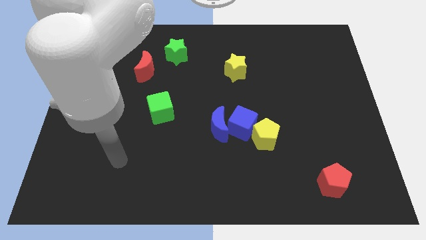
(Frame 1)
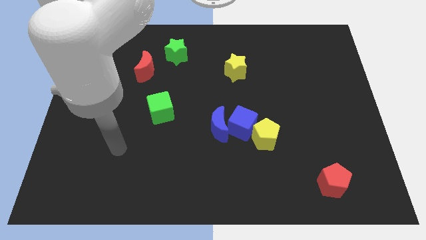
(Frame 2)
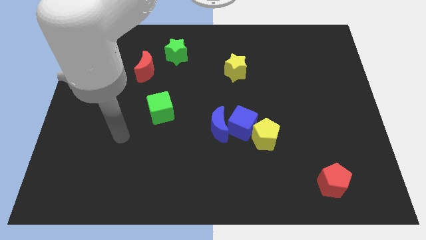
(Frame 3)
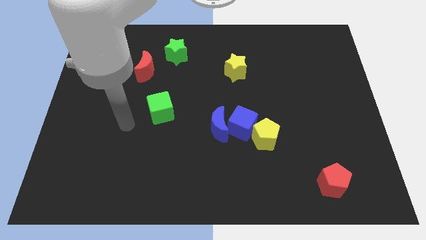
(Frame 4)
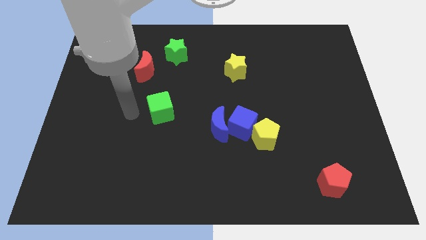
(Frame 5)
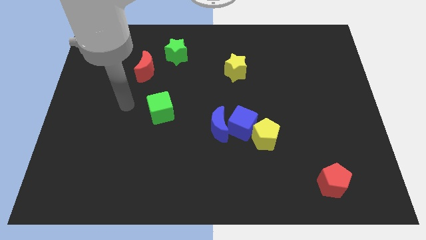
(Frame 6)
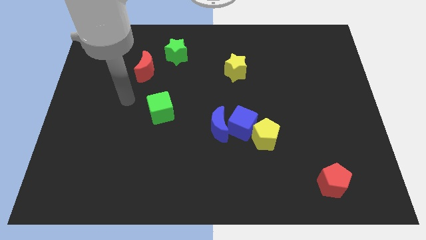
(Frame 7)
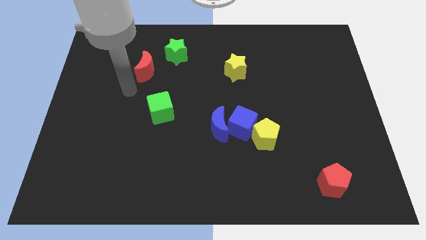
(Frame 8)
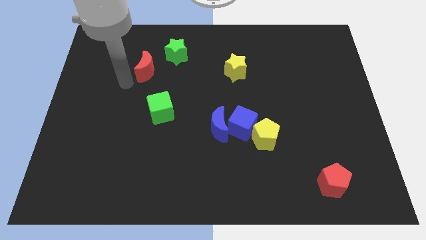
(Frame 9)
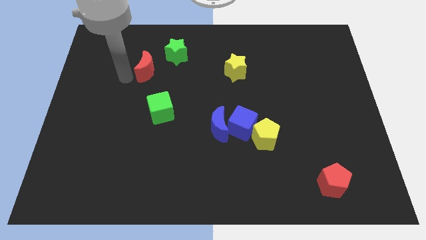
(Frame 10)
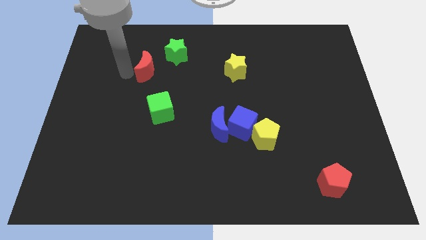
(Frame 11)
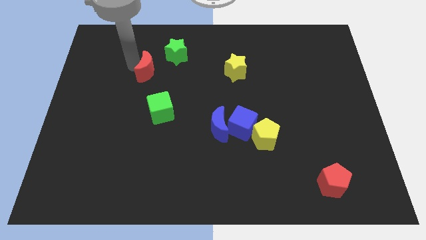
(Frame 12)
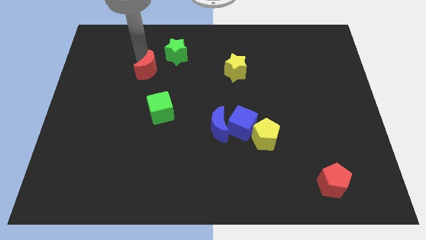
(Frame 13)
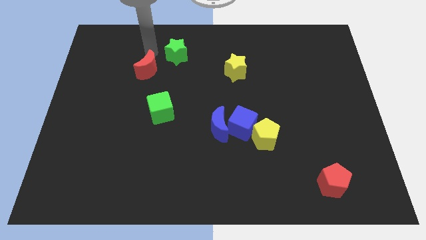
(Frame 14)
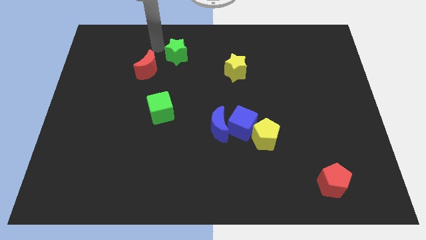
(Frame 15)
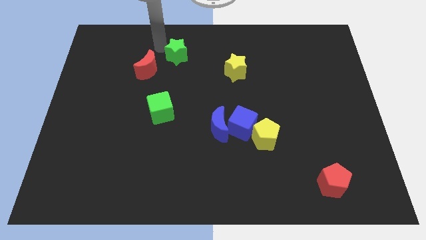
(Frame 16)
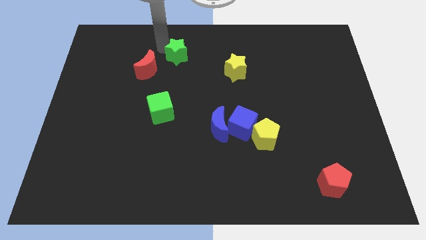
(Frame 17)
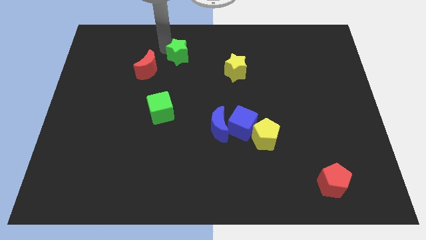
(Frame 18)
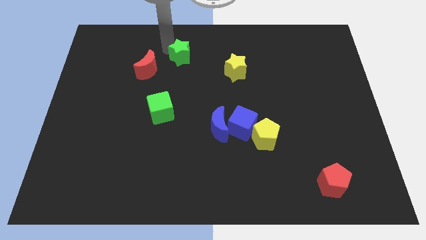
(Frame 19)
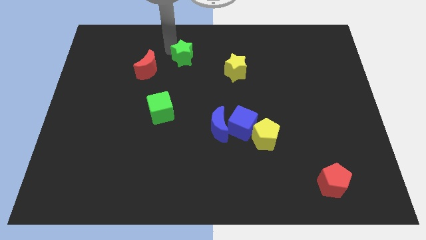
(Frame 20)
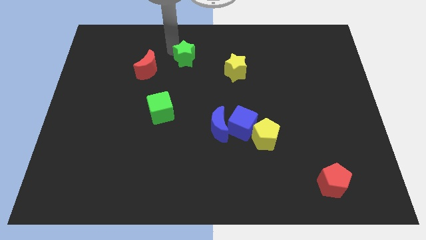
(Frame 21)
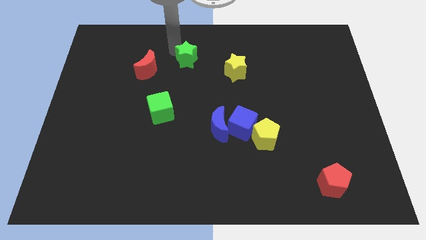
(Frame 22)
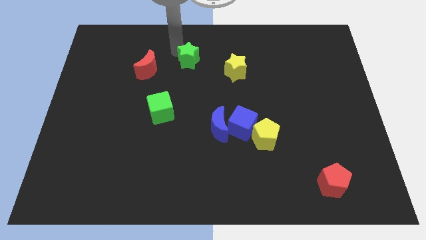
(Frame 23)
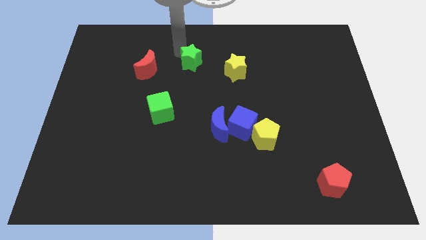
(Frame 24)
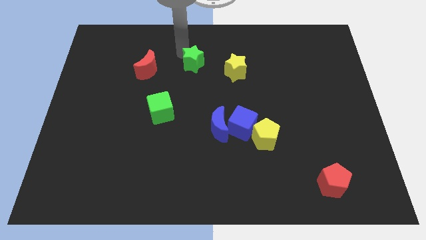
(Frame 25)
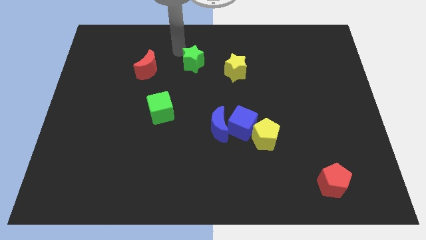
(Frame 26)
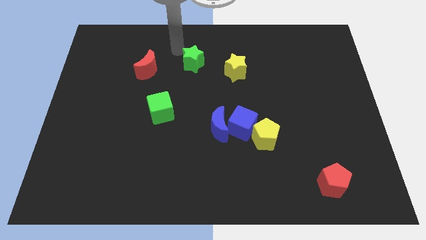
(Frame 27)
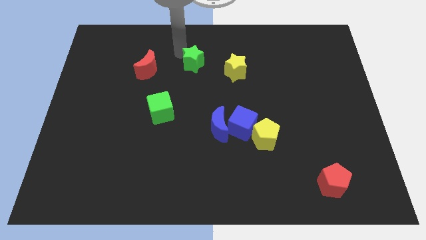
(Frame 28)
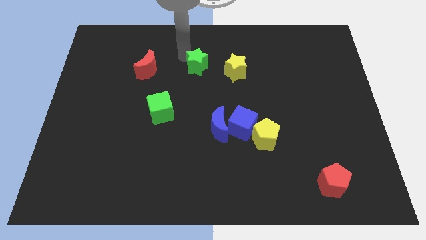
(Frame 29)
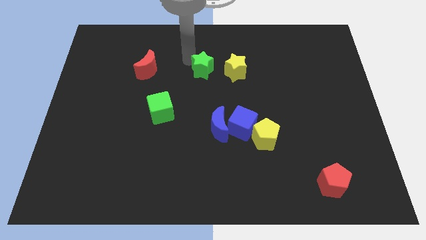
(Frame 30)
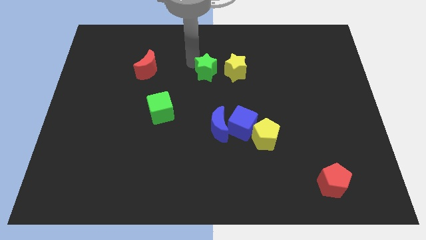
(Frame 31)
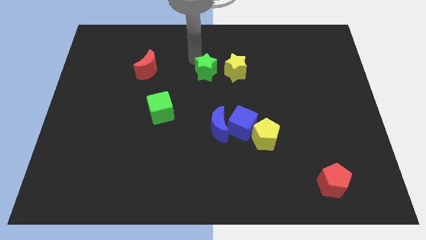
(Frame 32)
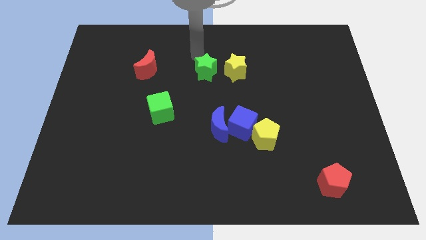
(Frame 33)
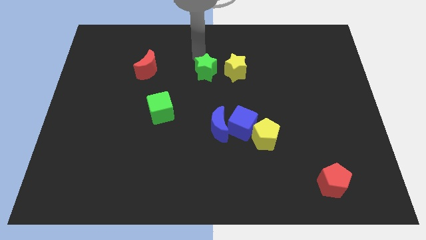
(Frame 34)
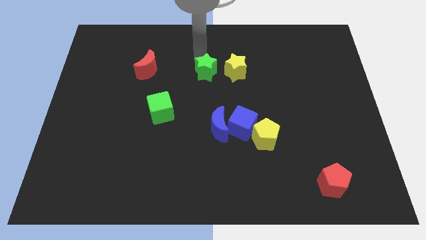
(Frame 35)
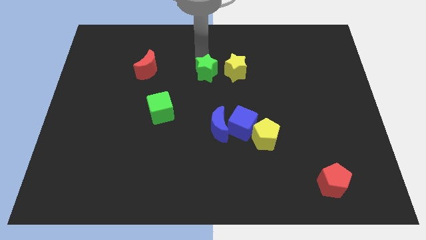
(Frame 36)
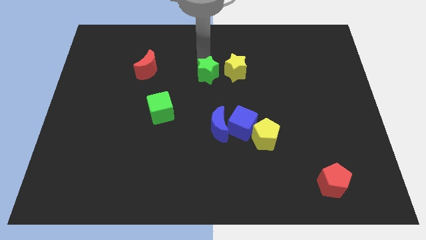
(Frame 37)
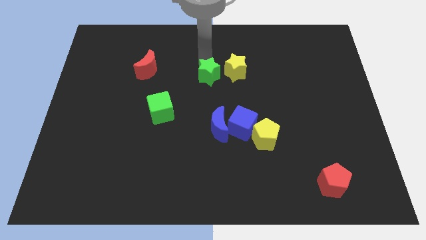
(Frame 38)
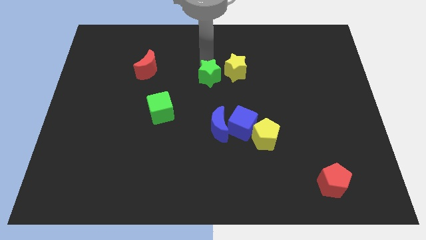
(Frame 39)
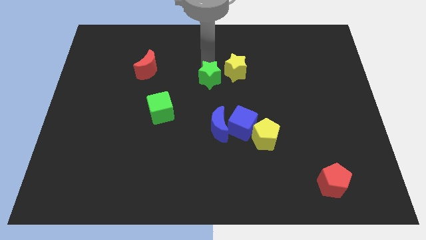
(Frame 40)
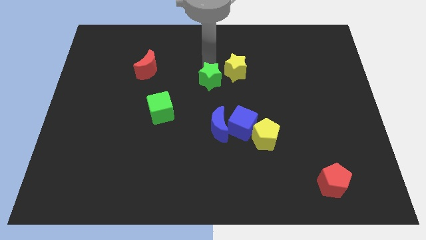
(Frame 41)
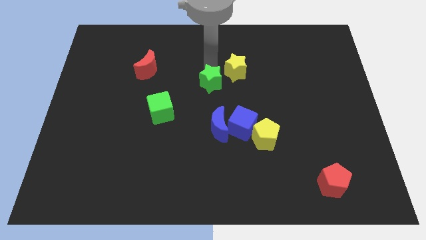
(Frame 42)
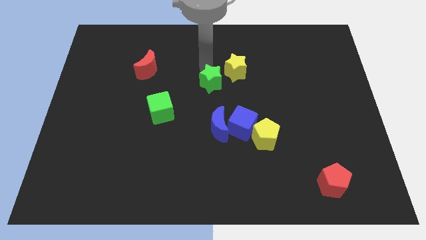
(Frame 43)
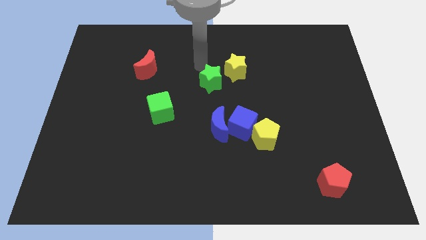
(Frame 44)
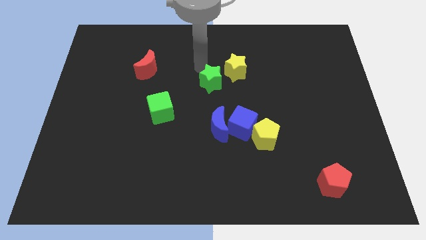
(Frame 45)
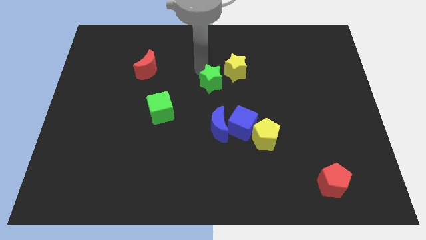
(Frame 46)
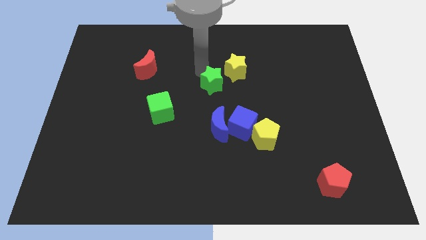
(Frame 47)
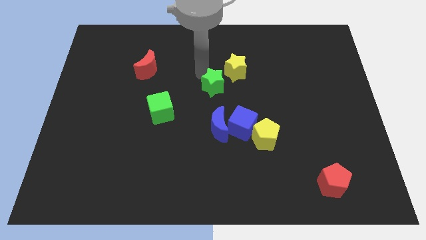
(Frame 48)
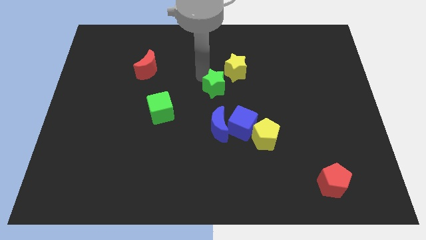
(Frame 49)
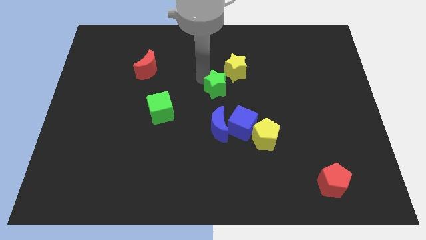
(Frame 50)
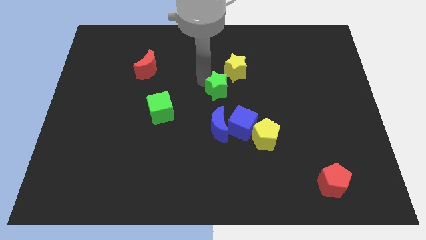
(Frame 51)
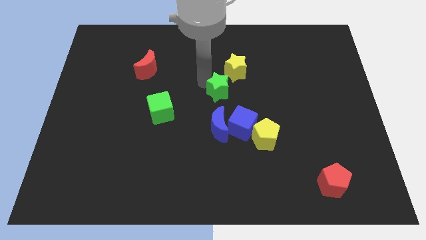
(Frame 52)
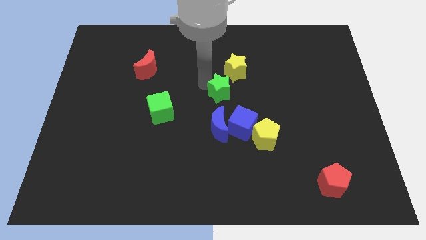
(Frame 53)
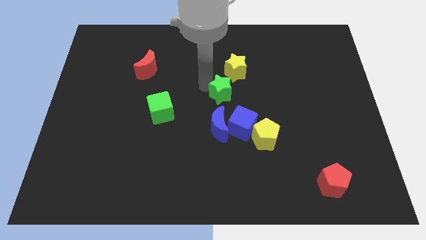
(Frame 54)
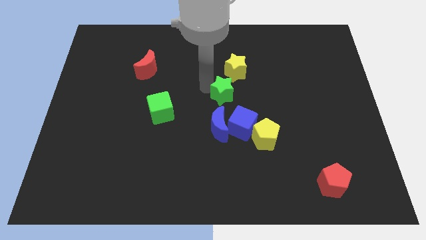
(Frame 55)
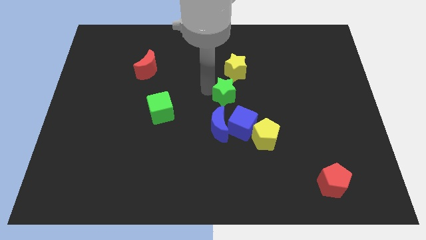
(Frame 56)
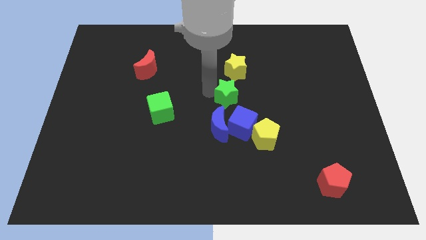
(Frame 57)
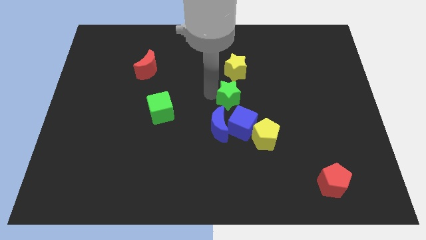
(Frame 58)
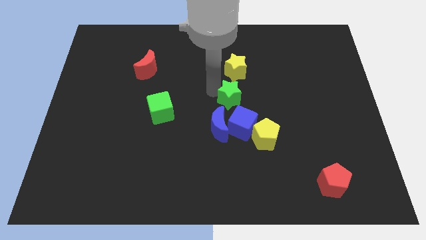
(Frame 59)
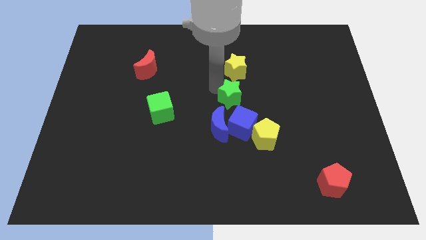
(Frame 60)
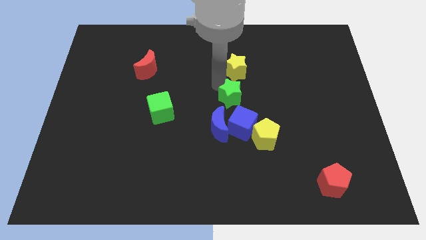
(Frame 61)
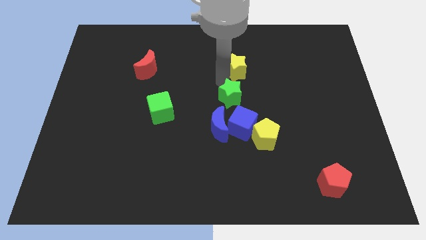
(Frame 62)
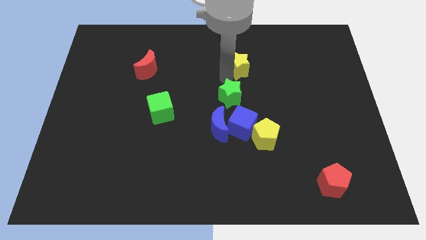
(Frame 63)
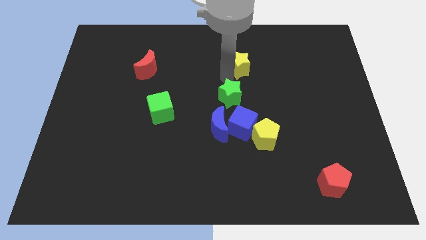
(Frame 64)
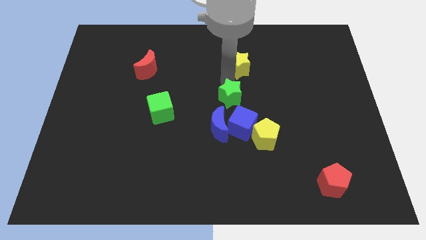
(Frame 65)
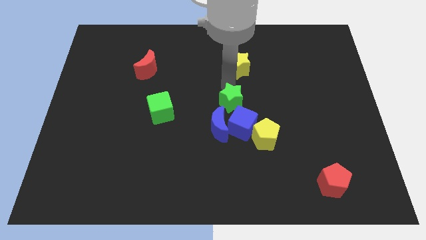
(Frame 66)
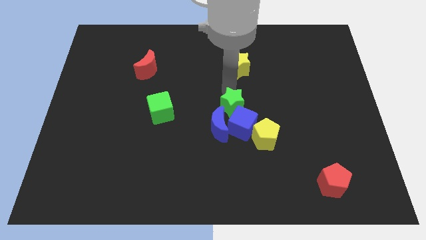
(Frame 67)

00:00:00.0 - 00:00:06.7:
push the green star towards the blue cube

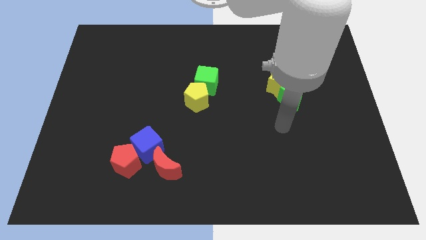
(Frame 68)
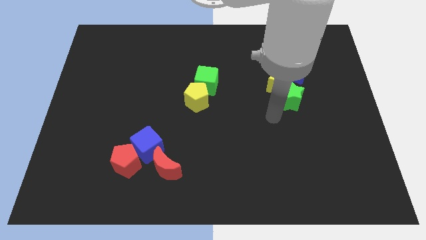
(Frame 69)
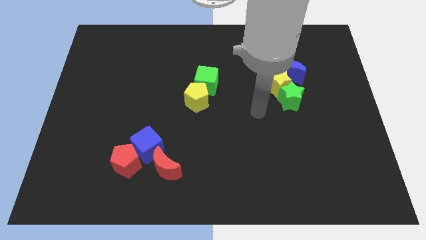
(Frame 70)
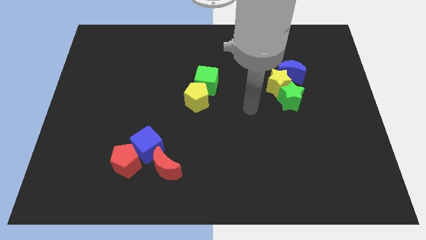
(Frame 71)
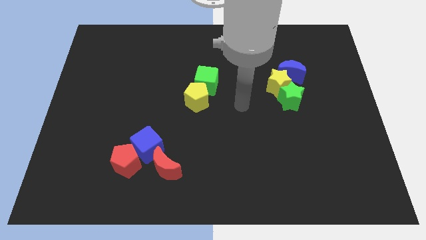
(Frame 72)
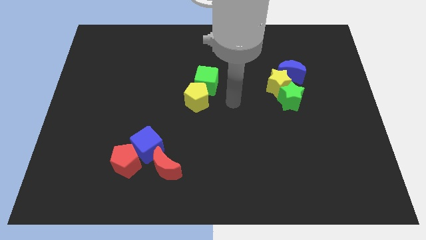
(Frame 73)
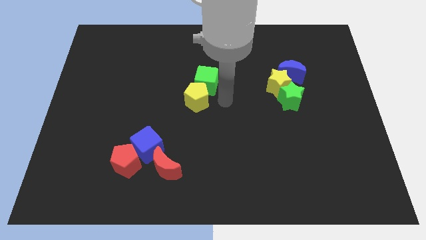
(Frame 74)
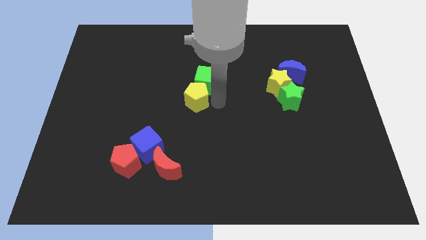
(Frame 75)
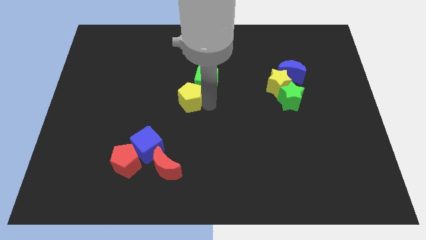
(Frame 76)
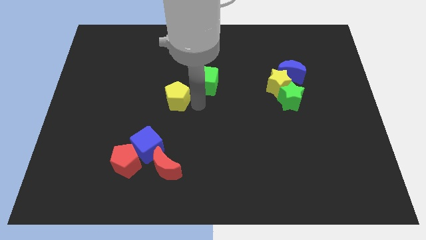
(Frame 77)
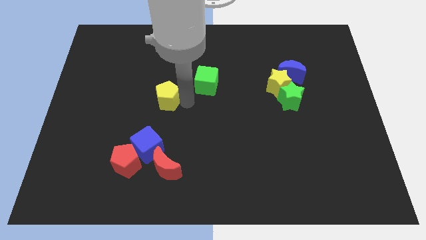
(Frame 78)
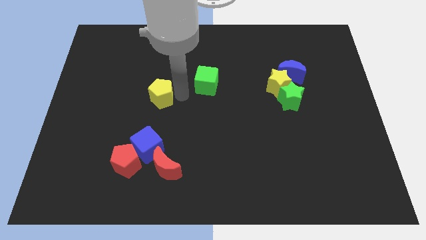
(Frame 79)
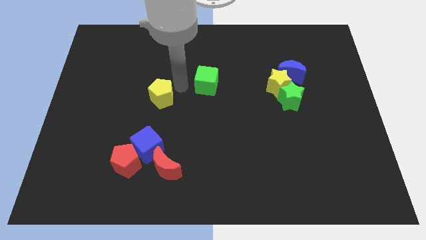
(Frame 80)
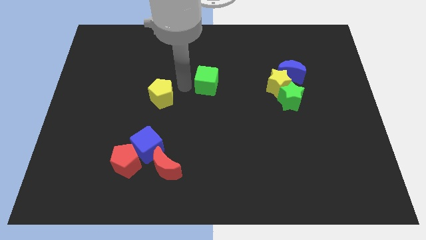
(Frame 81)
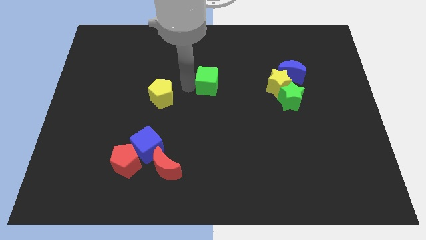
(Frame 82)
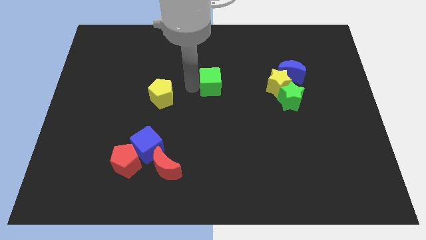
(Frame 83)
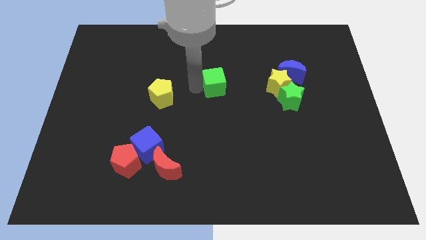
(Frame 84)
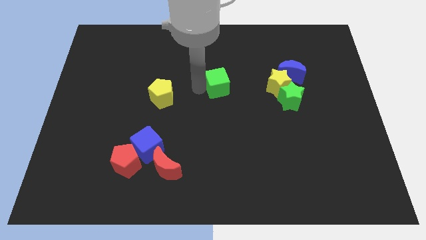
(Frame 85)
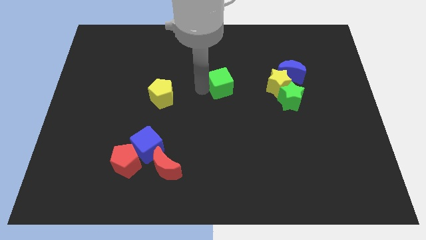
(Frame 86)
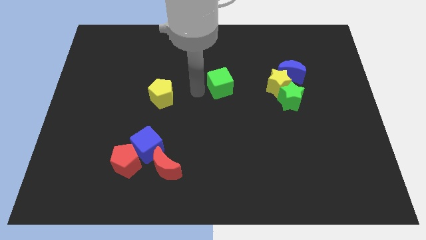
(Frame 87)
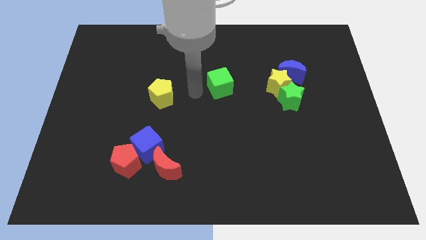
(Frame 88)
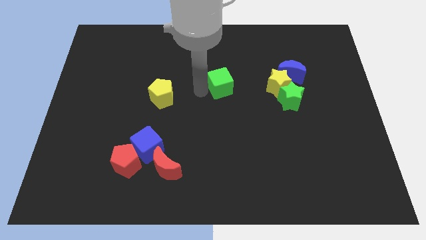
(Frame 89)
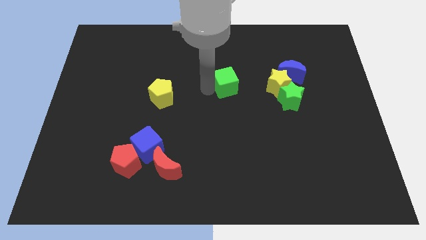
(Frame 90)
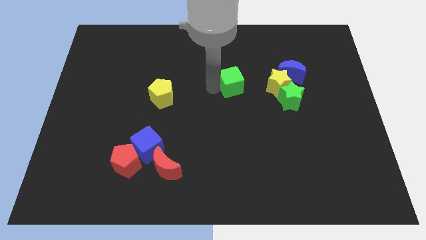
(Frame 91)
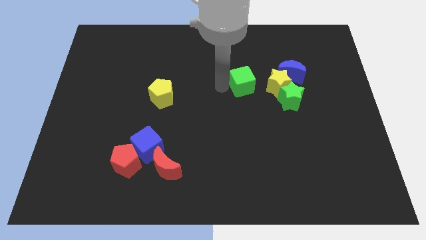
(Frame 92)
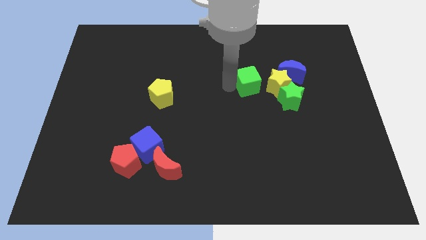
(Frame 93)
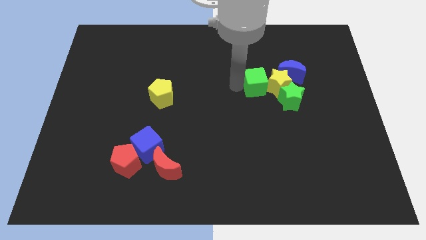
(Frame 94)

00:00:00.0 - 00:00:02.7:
put the green cube towards the yellow star
